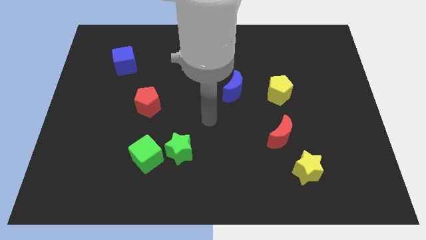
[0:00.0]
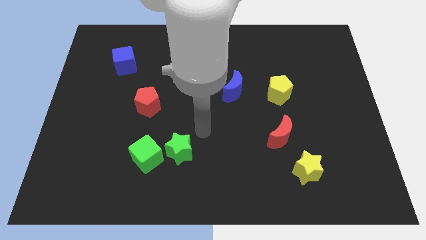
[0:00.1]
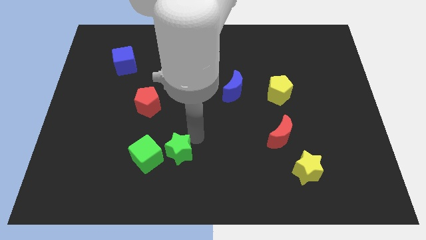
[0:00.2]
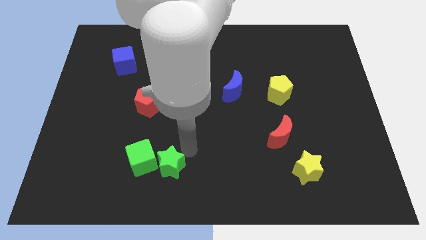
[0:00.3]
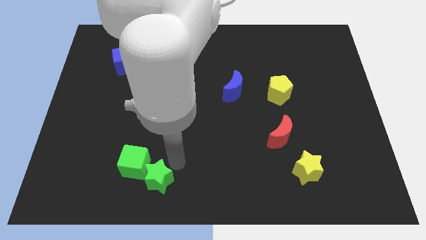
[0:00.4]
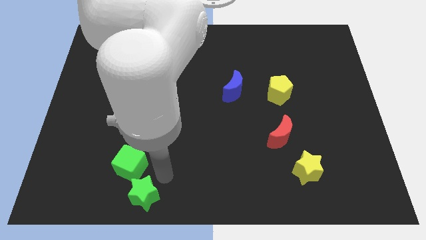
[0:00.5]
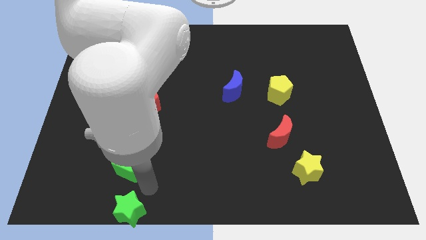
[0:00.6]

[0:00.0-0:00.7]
separate the green cube from the green star

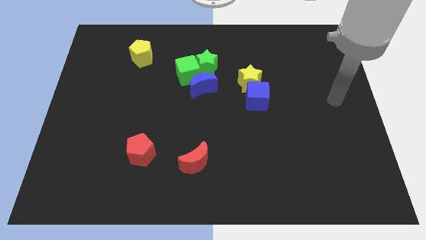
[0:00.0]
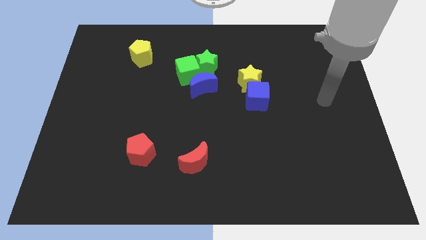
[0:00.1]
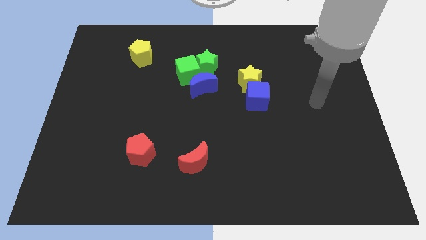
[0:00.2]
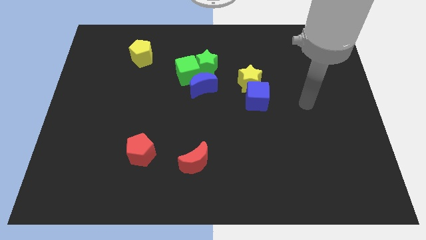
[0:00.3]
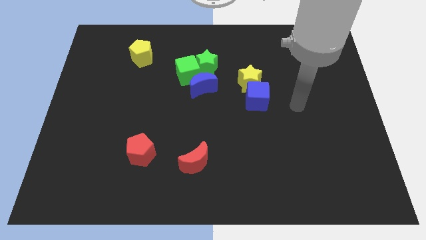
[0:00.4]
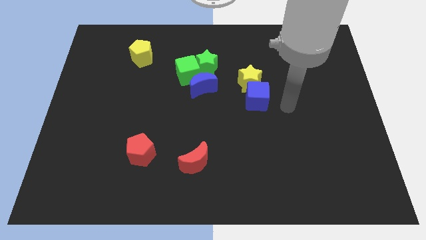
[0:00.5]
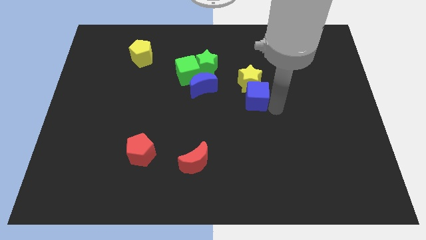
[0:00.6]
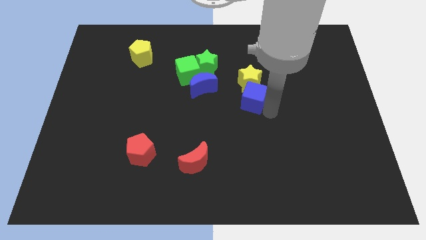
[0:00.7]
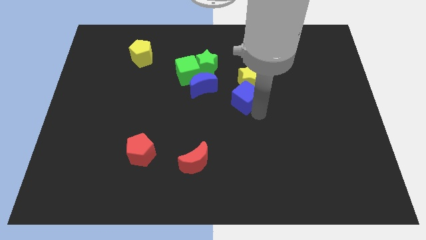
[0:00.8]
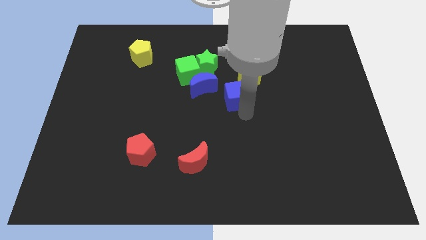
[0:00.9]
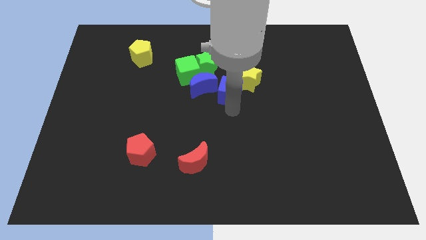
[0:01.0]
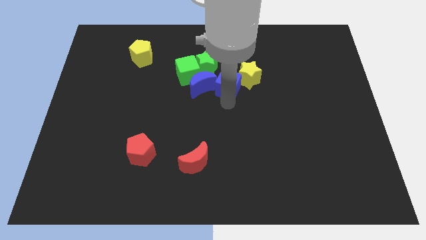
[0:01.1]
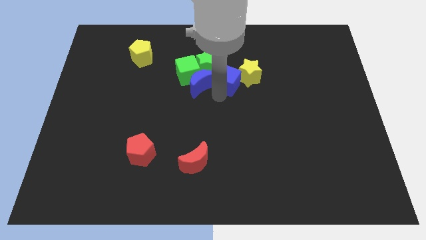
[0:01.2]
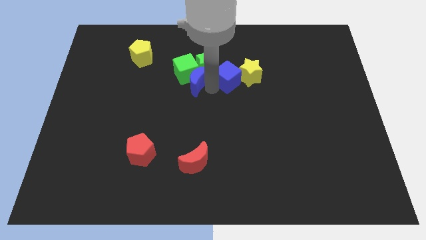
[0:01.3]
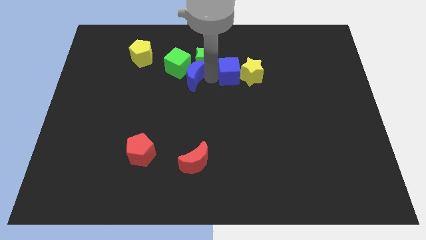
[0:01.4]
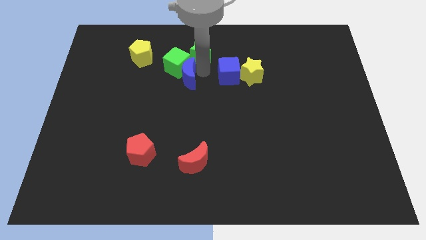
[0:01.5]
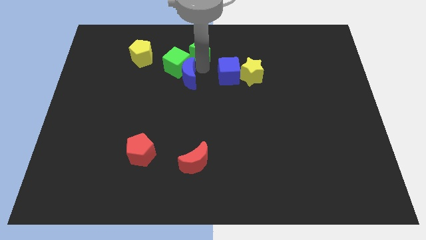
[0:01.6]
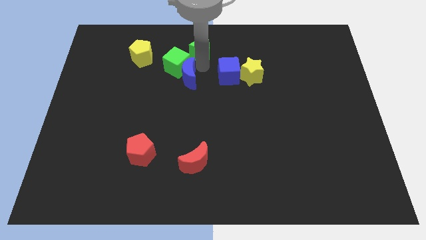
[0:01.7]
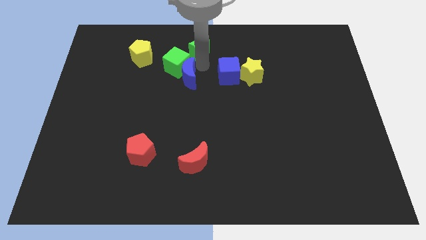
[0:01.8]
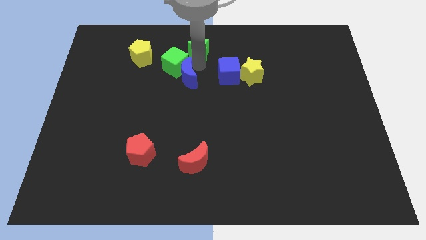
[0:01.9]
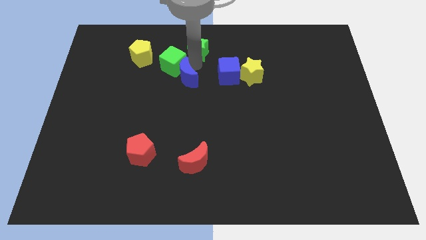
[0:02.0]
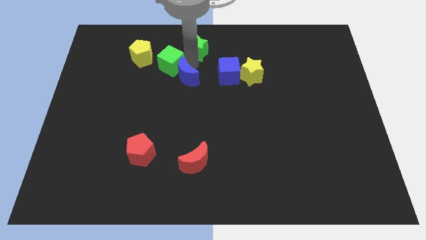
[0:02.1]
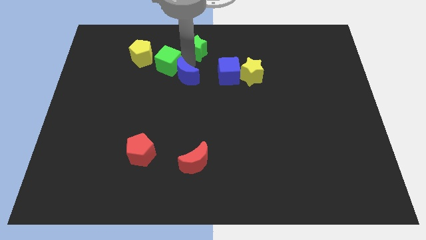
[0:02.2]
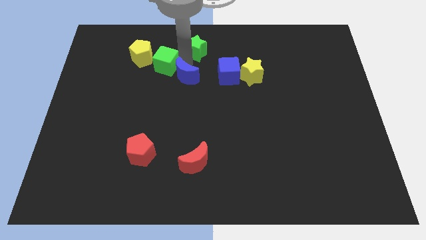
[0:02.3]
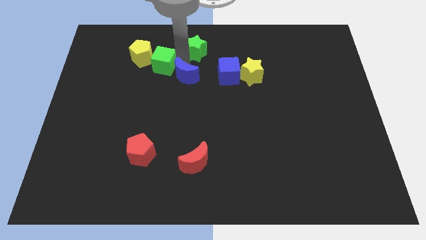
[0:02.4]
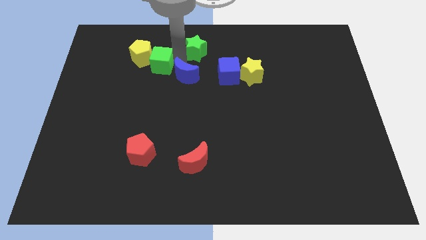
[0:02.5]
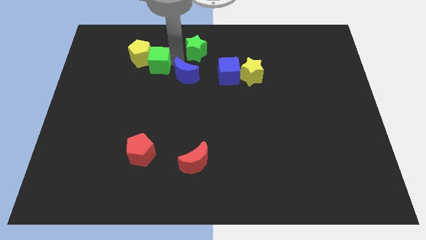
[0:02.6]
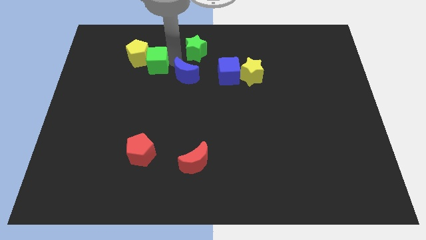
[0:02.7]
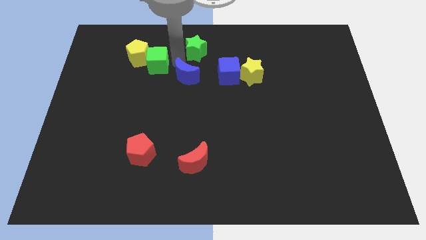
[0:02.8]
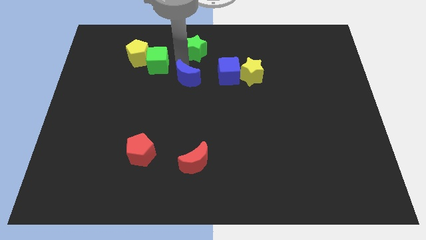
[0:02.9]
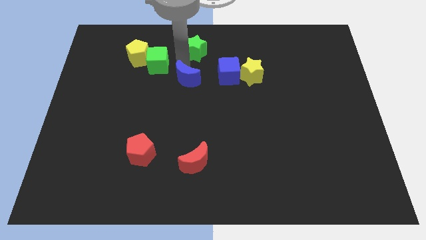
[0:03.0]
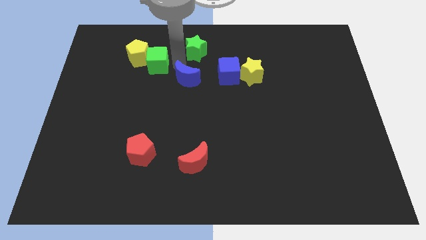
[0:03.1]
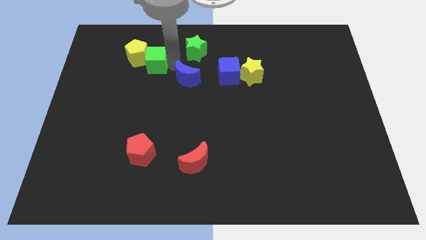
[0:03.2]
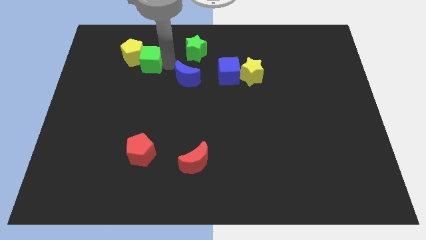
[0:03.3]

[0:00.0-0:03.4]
move the green cube away from the green star and blue moon

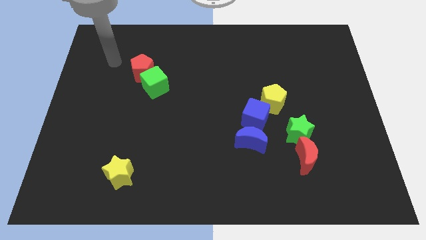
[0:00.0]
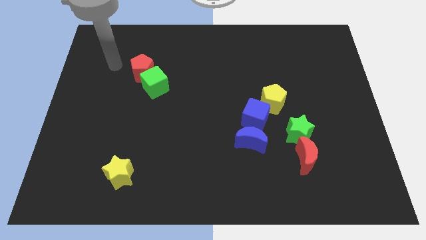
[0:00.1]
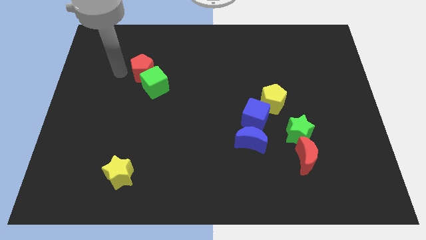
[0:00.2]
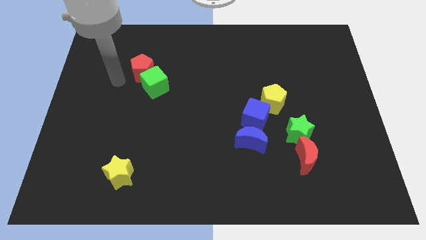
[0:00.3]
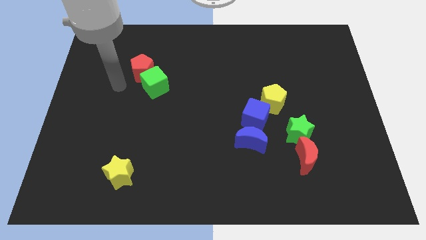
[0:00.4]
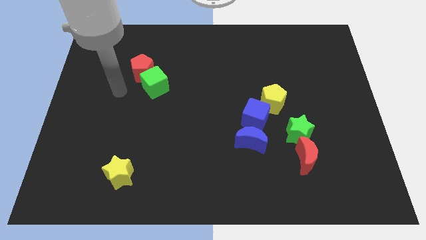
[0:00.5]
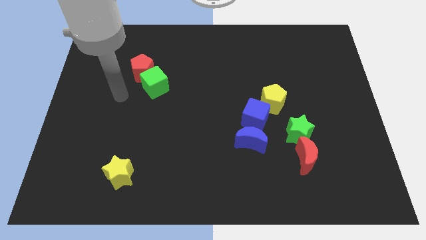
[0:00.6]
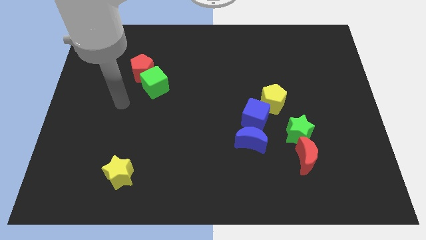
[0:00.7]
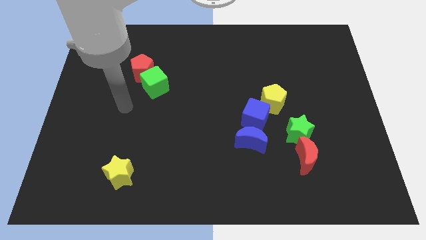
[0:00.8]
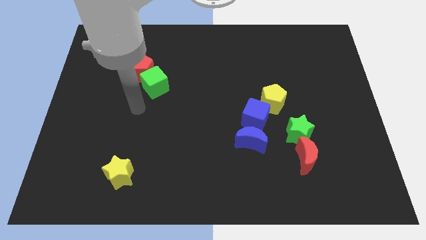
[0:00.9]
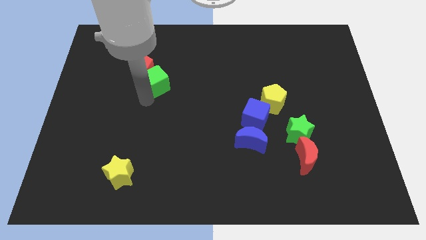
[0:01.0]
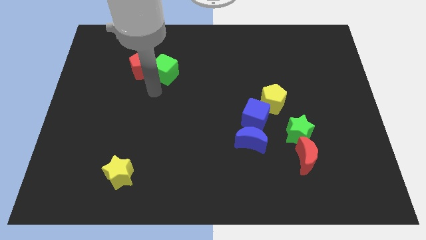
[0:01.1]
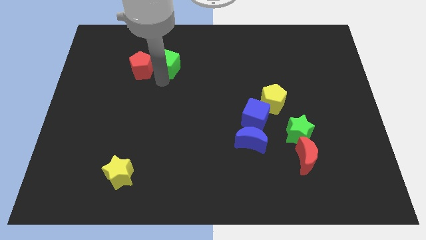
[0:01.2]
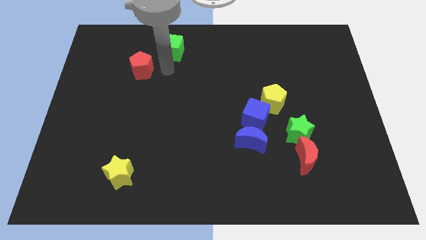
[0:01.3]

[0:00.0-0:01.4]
move the red pentagon away from the green cube

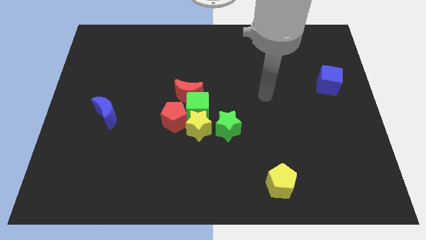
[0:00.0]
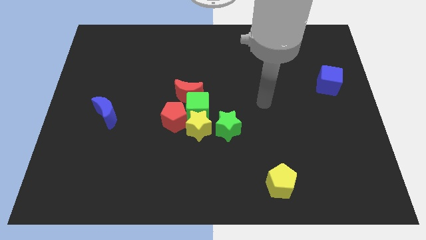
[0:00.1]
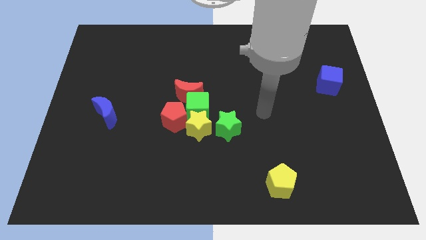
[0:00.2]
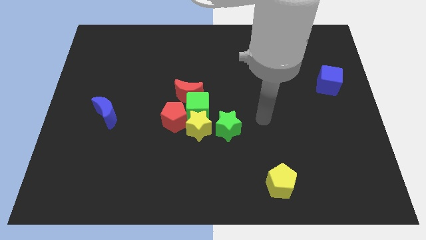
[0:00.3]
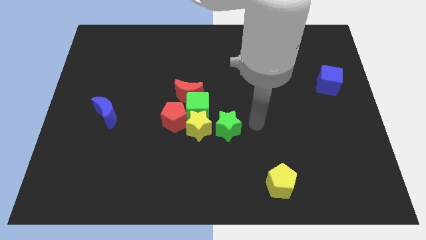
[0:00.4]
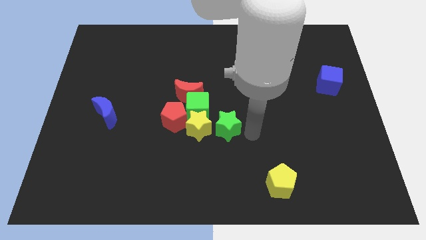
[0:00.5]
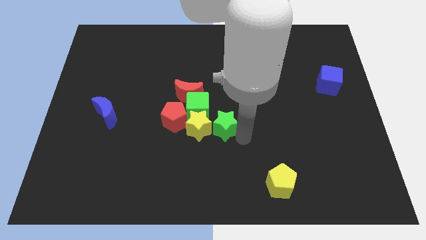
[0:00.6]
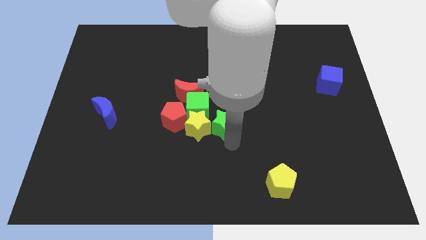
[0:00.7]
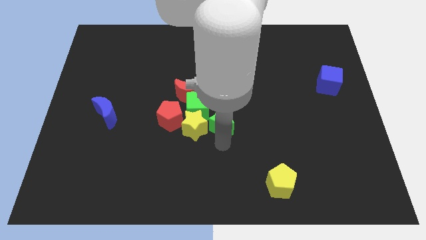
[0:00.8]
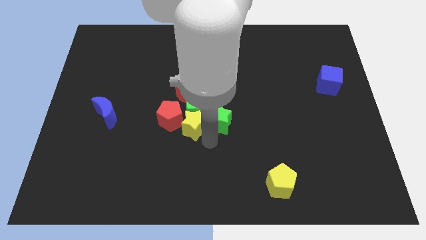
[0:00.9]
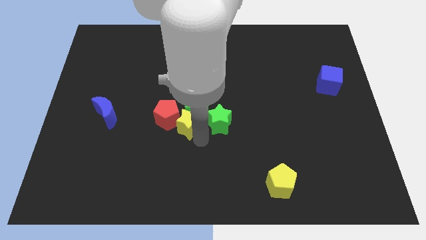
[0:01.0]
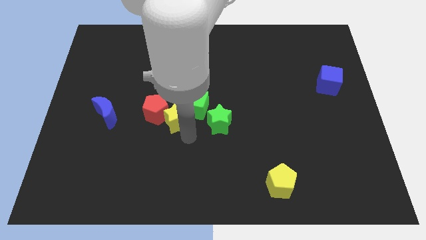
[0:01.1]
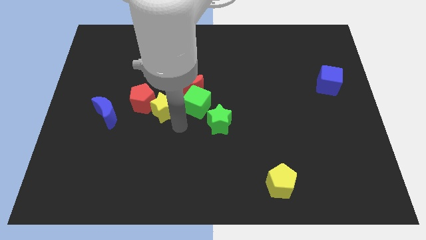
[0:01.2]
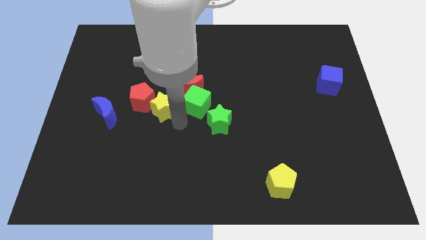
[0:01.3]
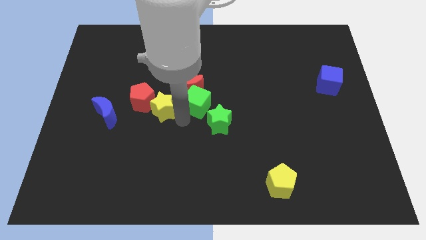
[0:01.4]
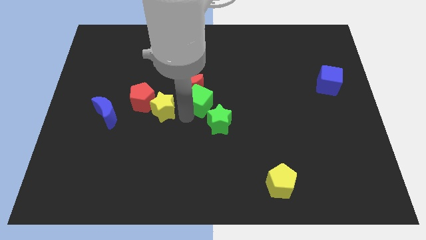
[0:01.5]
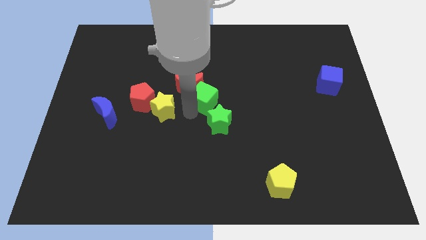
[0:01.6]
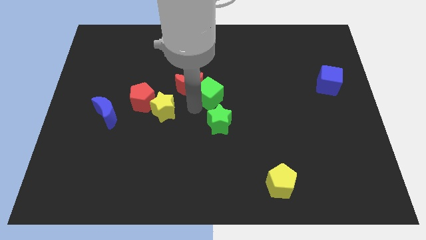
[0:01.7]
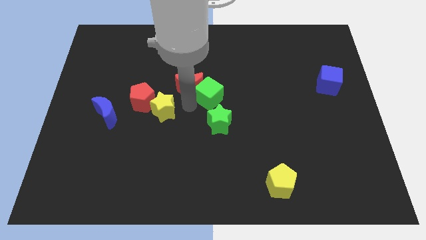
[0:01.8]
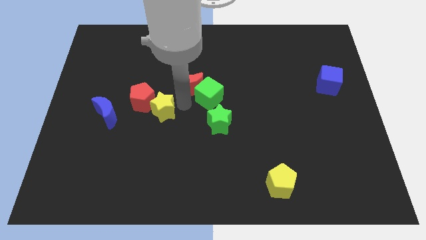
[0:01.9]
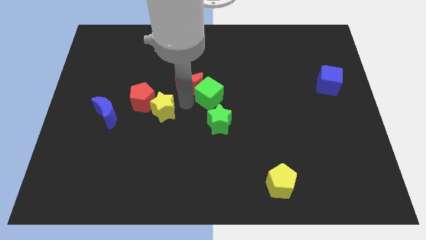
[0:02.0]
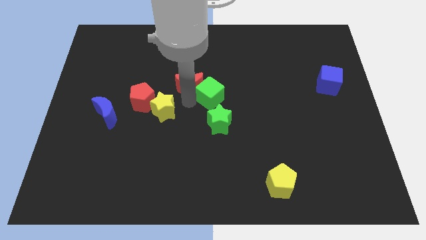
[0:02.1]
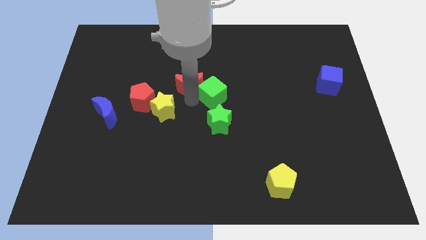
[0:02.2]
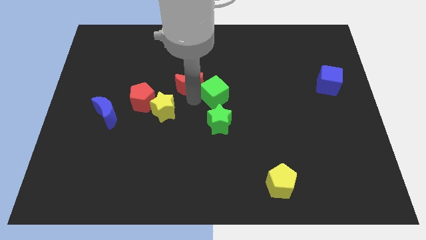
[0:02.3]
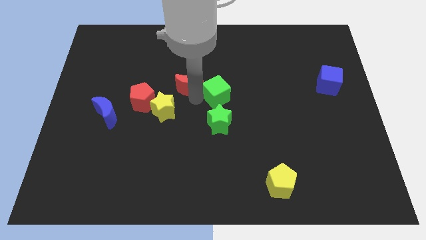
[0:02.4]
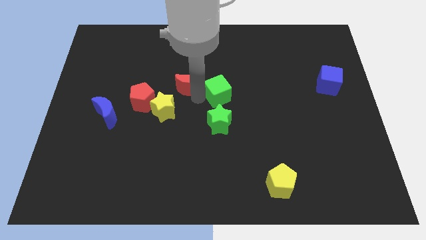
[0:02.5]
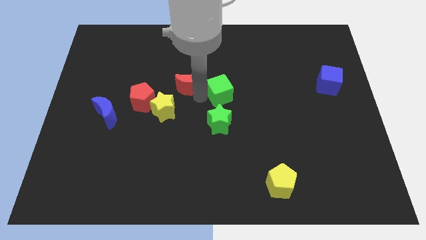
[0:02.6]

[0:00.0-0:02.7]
separate the green cube from the group

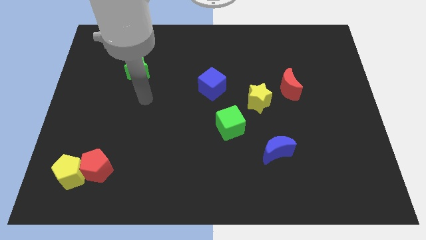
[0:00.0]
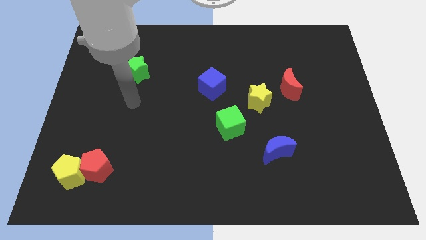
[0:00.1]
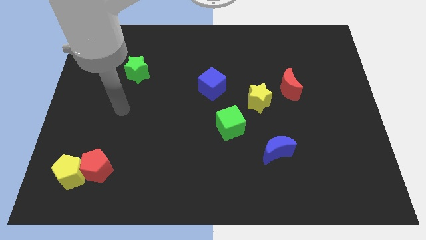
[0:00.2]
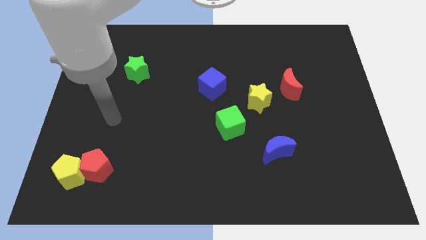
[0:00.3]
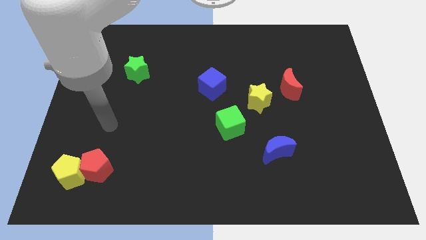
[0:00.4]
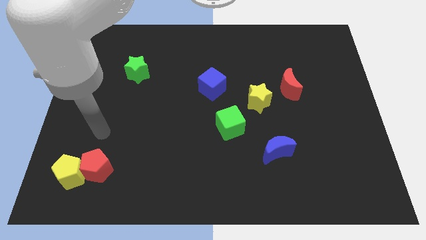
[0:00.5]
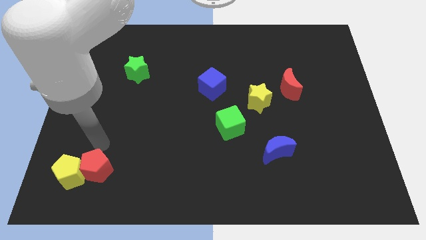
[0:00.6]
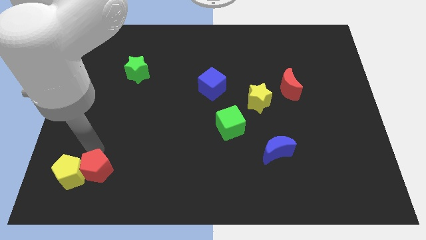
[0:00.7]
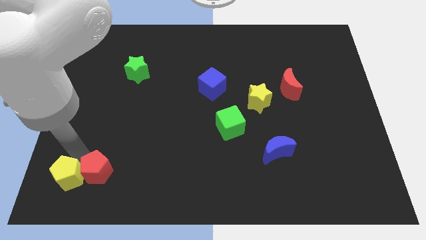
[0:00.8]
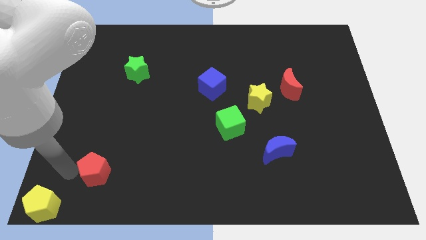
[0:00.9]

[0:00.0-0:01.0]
separate the red pentagon from the yellow pentagon
